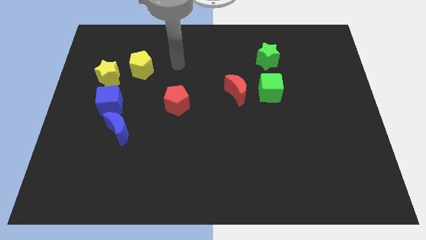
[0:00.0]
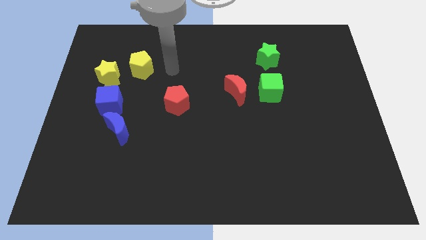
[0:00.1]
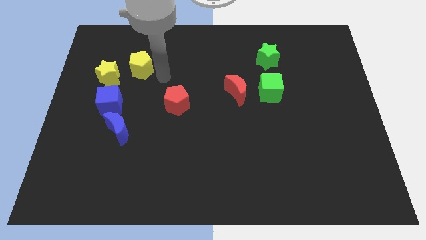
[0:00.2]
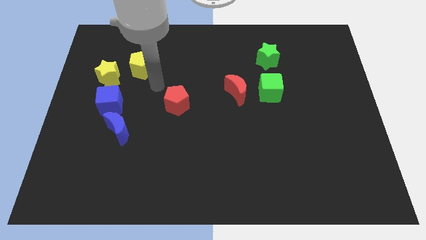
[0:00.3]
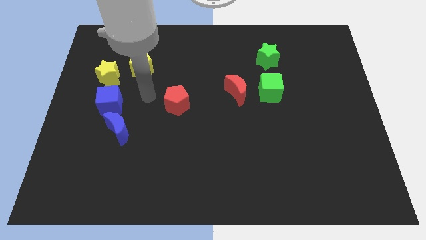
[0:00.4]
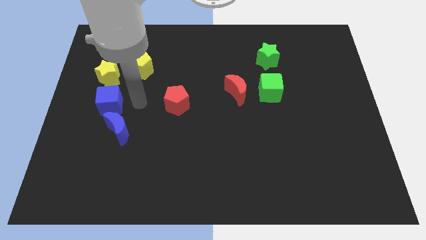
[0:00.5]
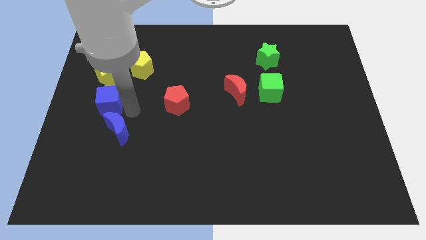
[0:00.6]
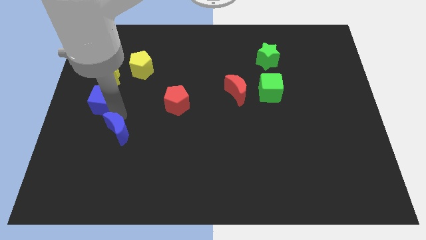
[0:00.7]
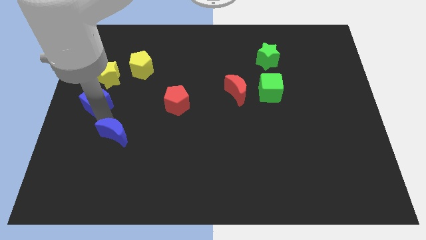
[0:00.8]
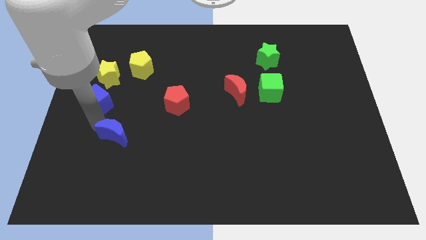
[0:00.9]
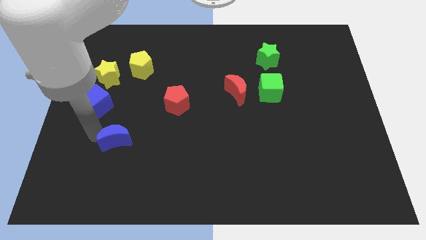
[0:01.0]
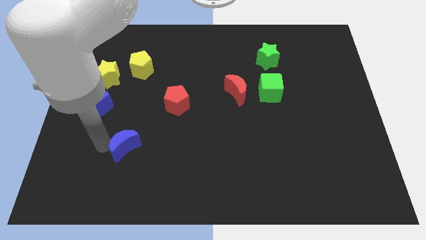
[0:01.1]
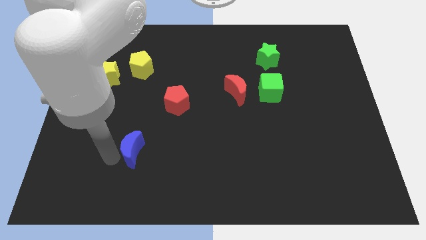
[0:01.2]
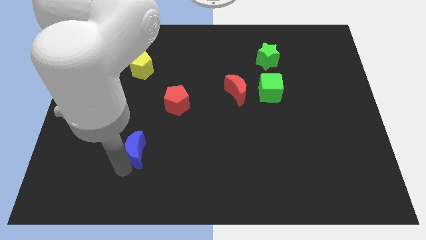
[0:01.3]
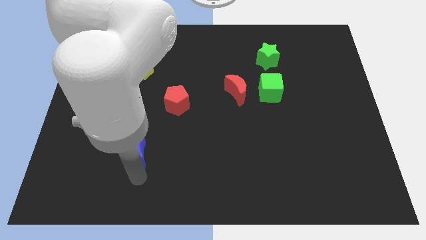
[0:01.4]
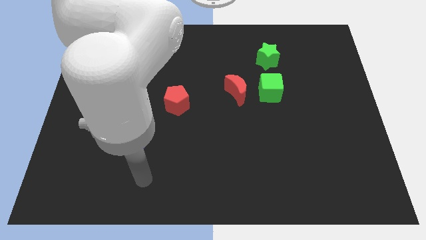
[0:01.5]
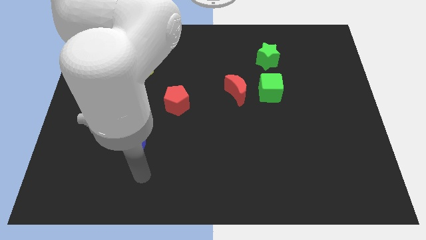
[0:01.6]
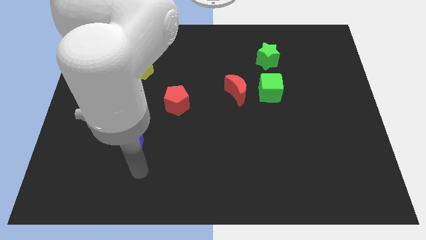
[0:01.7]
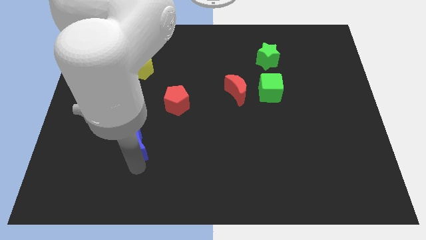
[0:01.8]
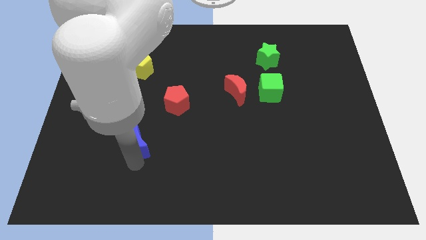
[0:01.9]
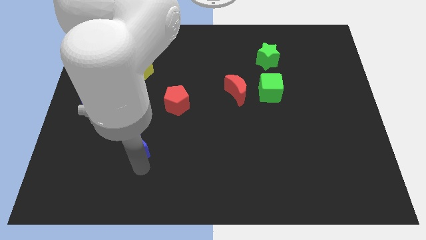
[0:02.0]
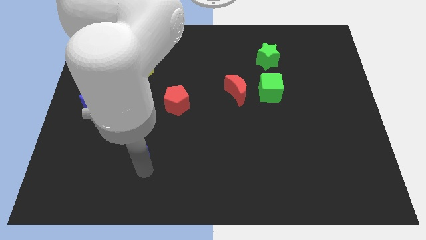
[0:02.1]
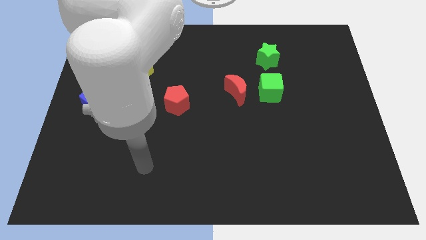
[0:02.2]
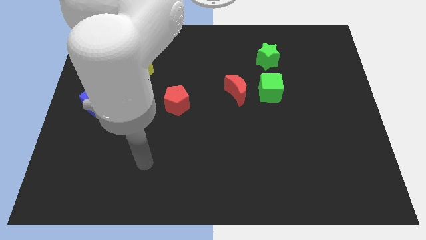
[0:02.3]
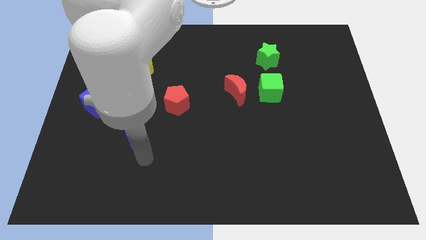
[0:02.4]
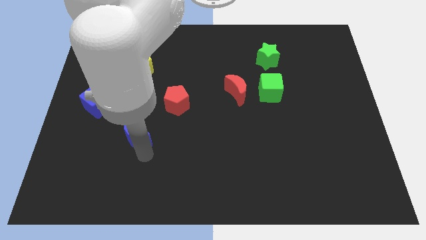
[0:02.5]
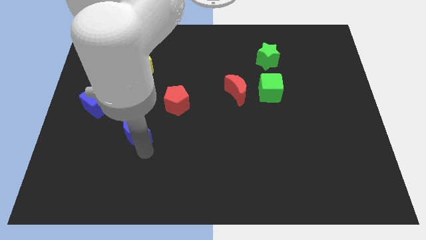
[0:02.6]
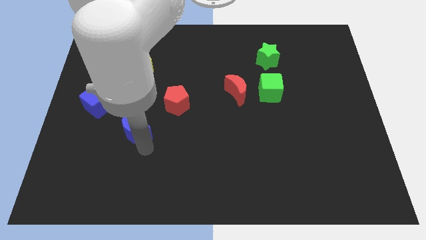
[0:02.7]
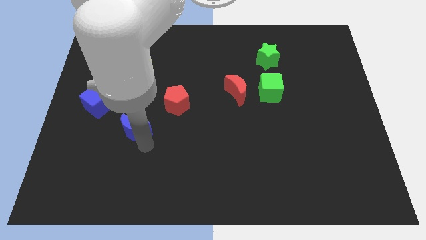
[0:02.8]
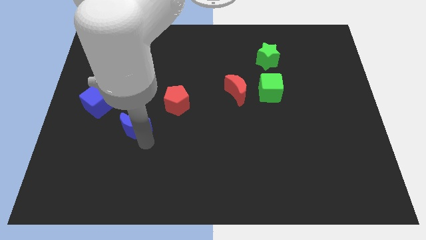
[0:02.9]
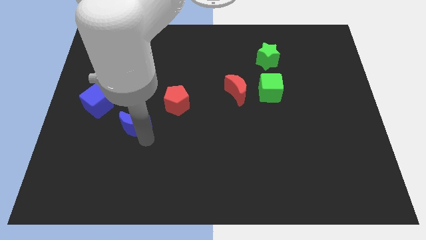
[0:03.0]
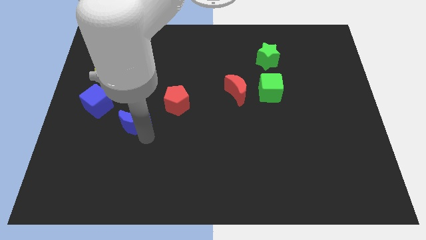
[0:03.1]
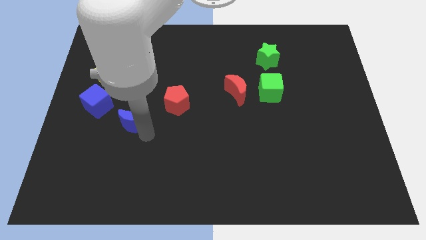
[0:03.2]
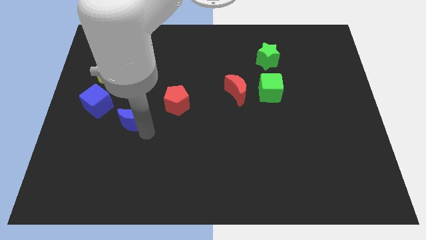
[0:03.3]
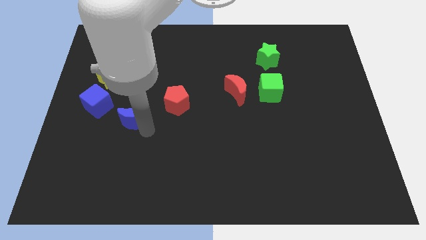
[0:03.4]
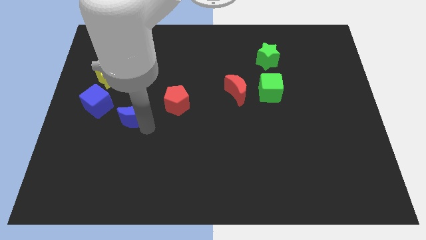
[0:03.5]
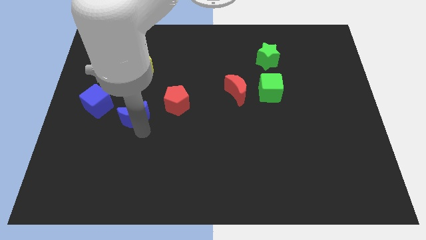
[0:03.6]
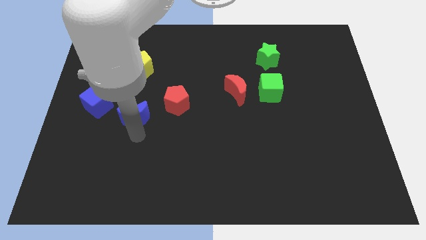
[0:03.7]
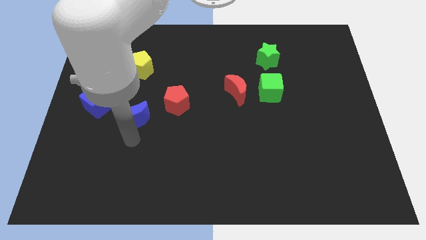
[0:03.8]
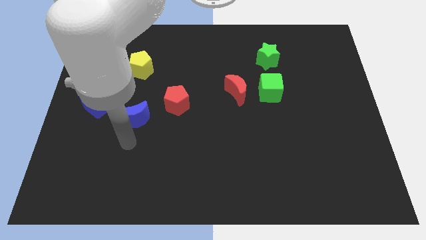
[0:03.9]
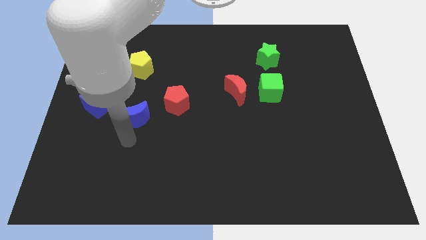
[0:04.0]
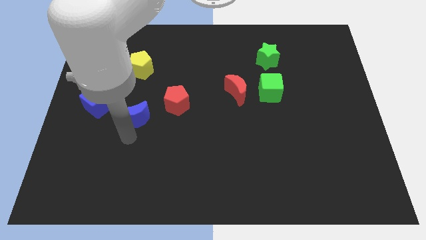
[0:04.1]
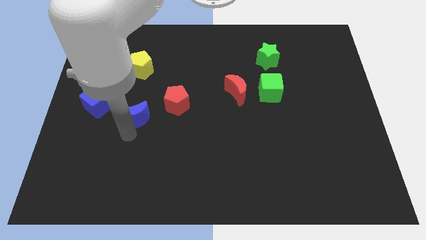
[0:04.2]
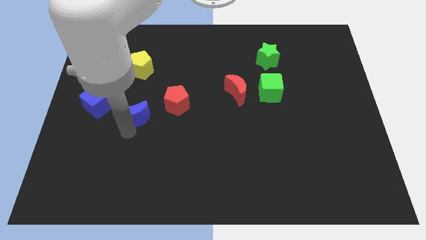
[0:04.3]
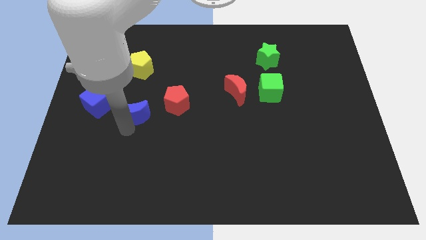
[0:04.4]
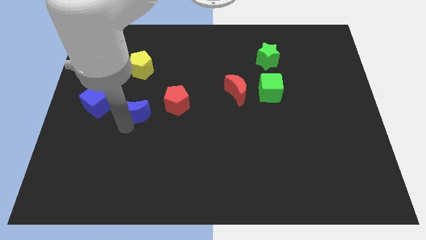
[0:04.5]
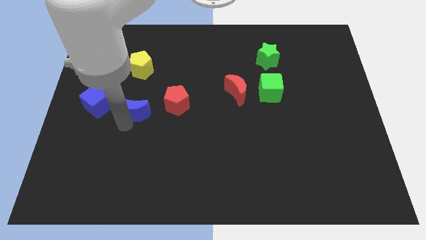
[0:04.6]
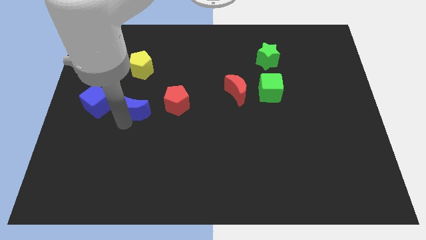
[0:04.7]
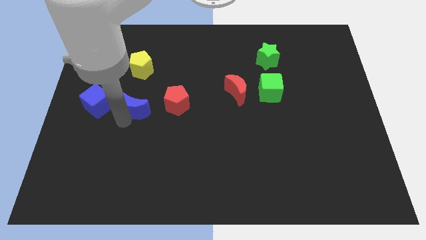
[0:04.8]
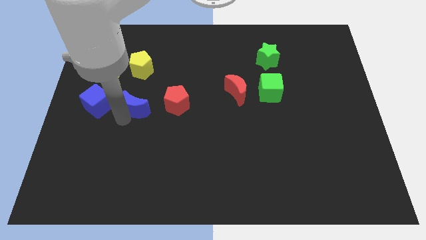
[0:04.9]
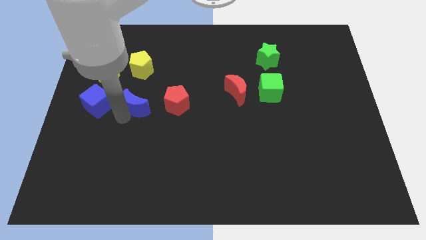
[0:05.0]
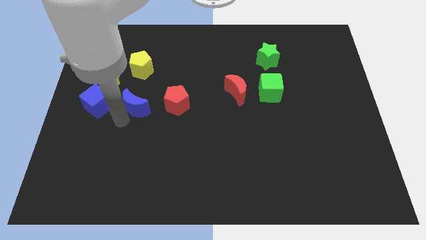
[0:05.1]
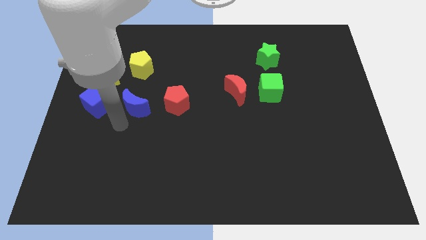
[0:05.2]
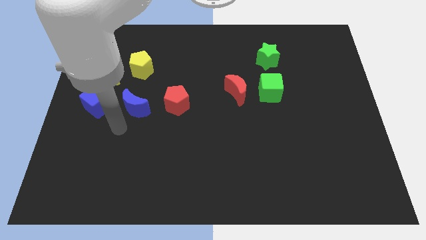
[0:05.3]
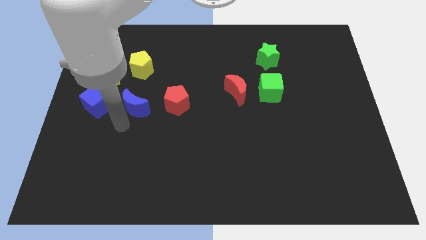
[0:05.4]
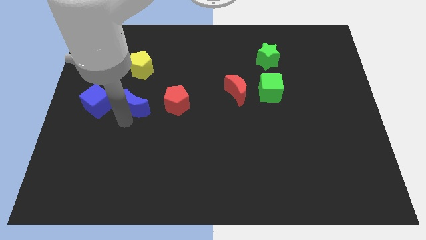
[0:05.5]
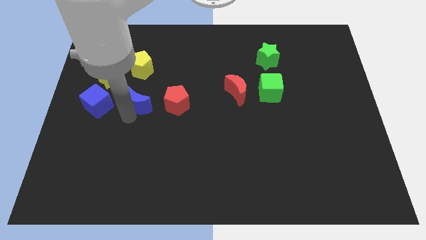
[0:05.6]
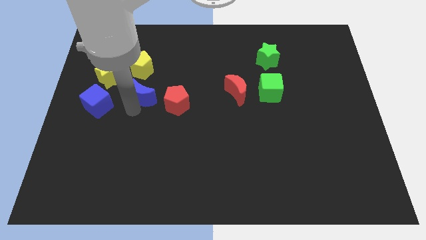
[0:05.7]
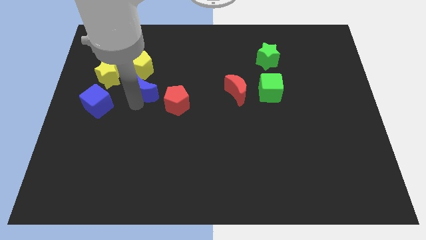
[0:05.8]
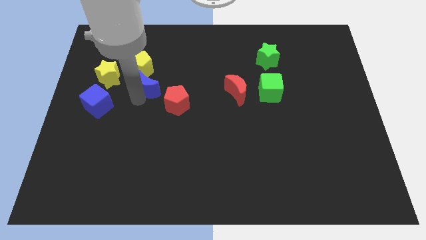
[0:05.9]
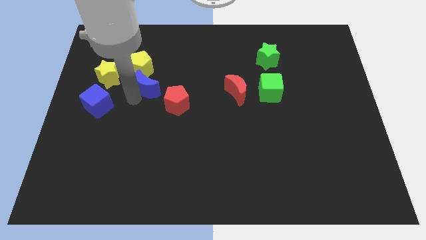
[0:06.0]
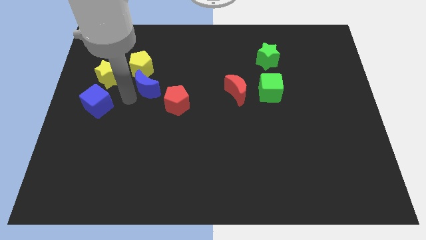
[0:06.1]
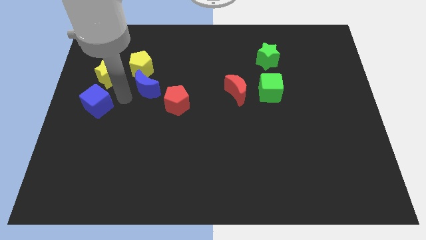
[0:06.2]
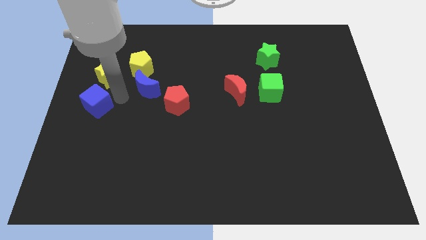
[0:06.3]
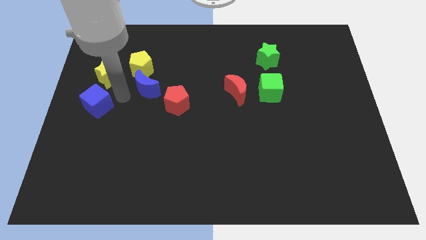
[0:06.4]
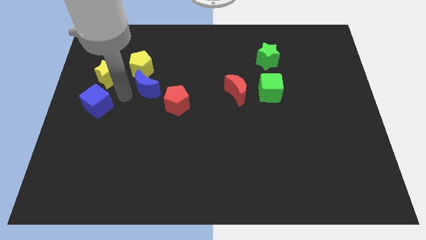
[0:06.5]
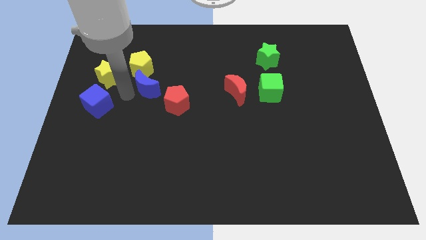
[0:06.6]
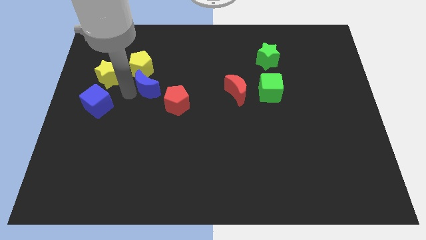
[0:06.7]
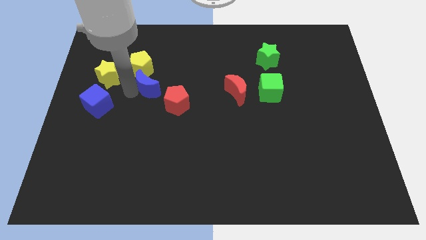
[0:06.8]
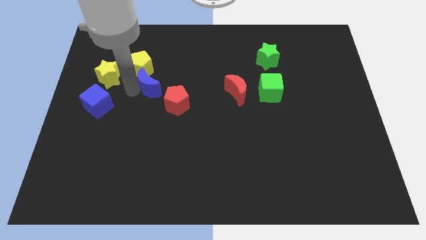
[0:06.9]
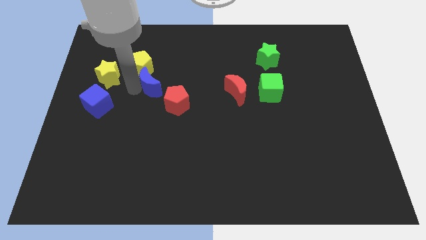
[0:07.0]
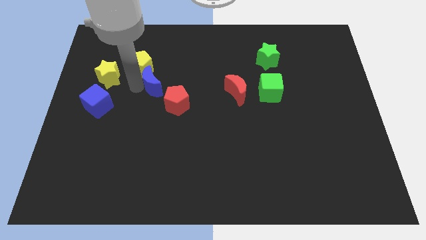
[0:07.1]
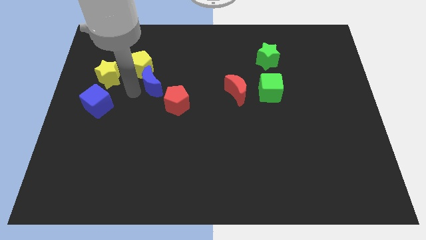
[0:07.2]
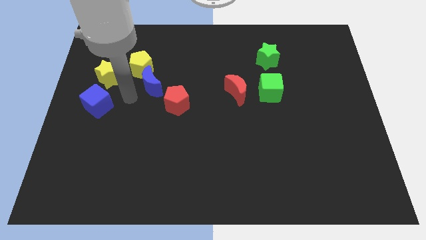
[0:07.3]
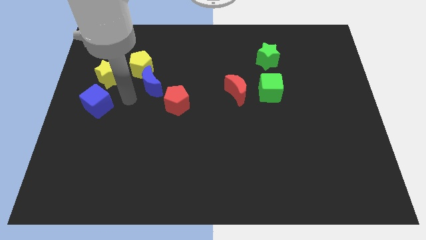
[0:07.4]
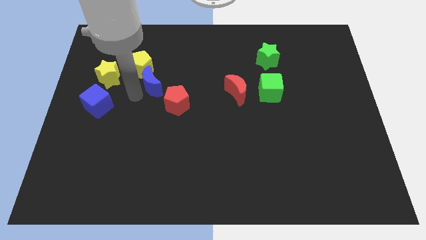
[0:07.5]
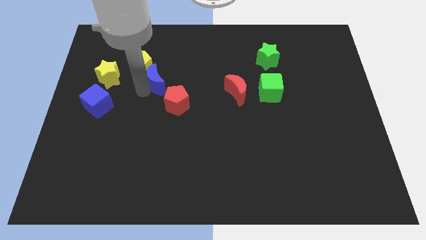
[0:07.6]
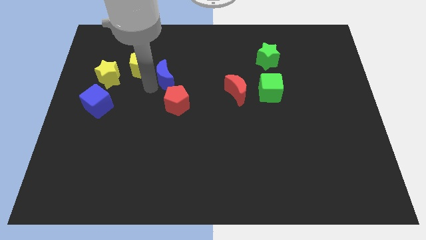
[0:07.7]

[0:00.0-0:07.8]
move the blue moon to the right side of the yellow pentagon
